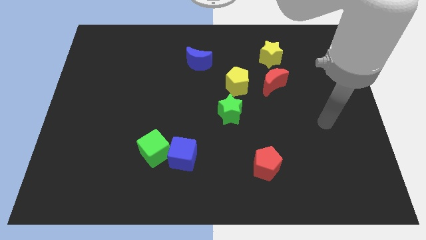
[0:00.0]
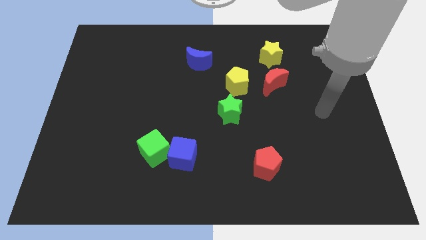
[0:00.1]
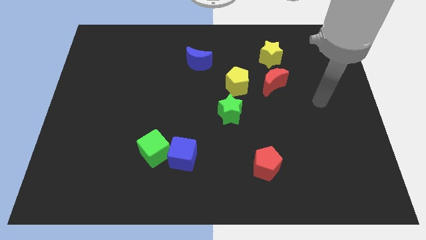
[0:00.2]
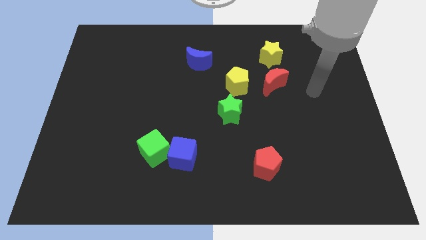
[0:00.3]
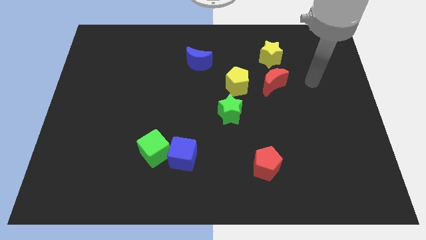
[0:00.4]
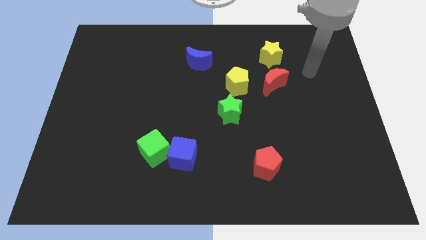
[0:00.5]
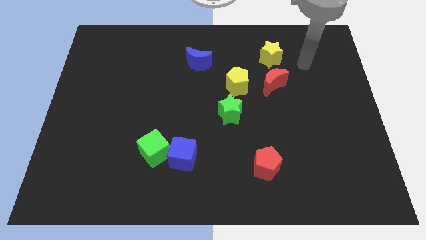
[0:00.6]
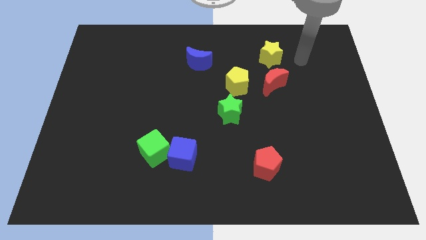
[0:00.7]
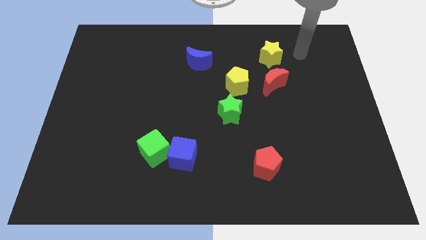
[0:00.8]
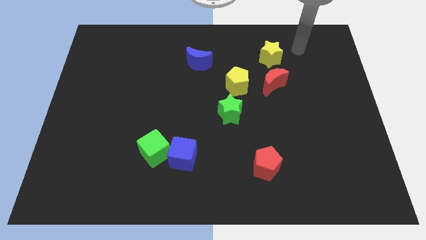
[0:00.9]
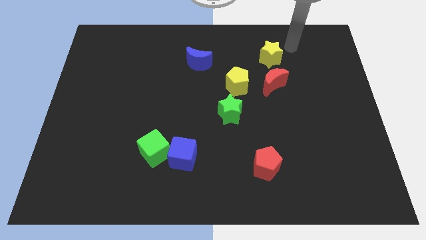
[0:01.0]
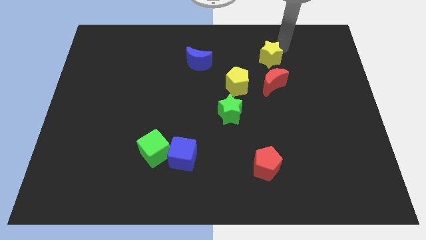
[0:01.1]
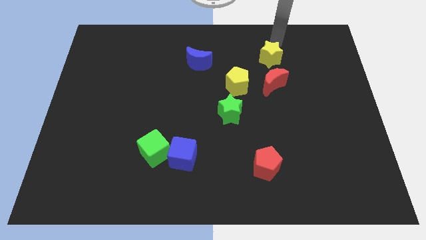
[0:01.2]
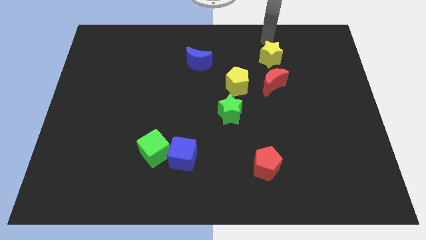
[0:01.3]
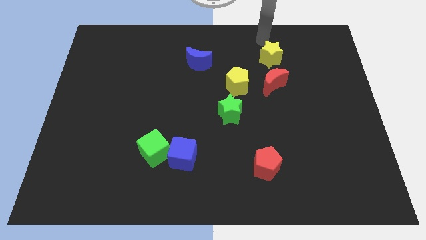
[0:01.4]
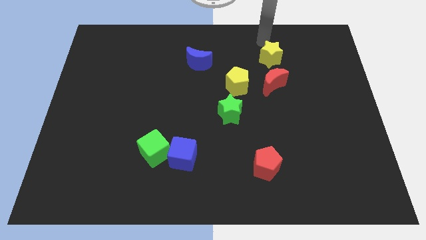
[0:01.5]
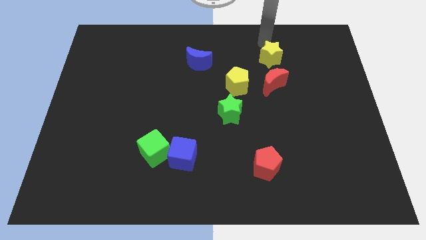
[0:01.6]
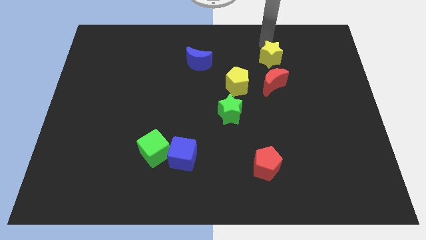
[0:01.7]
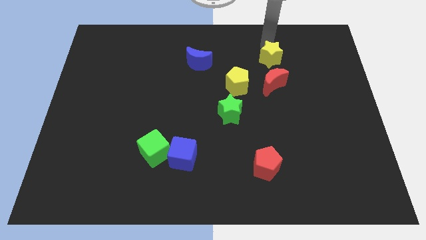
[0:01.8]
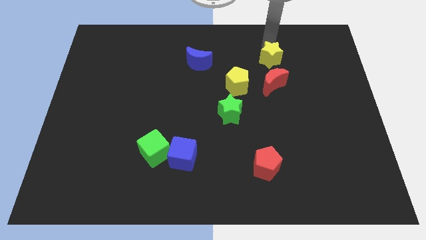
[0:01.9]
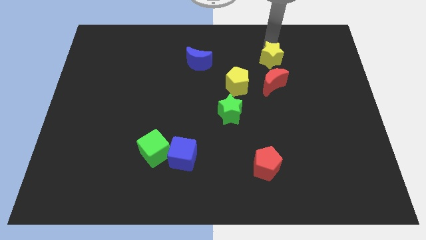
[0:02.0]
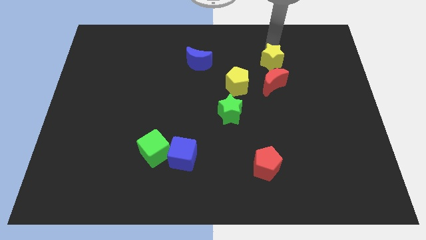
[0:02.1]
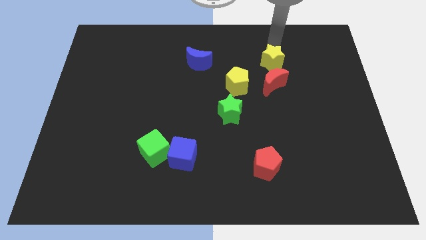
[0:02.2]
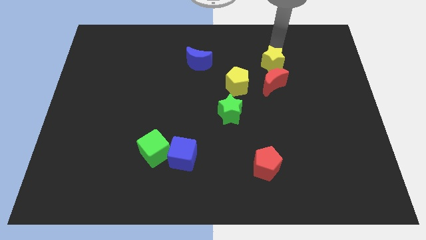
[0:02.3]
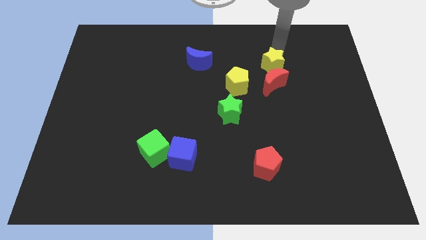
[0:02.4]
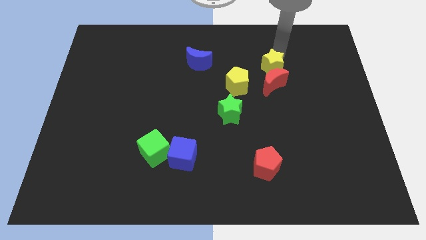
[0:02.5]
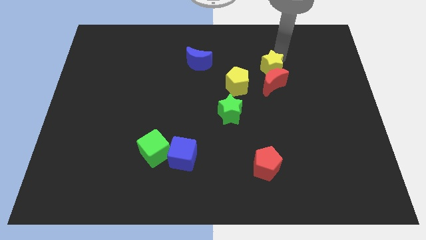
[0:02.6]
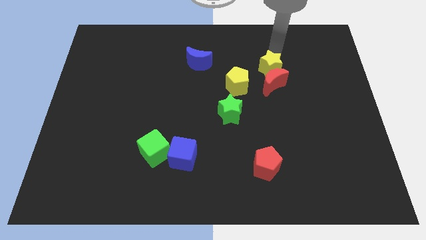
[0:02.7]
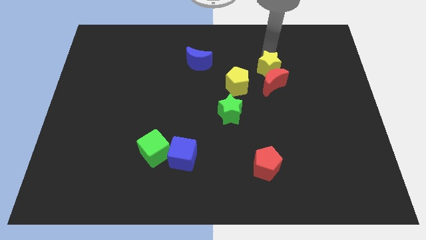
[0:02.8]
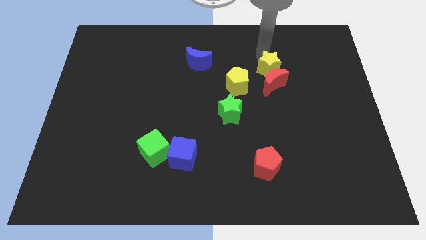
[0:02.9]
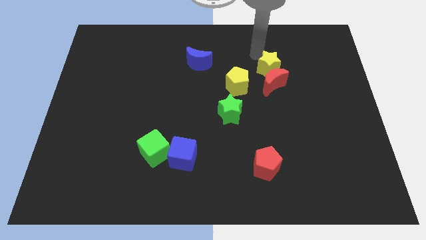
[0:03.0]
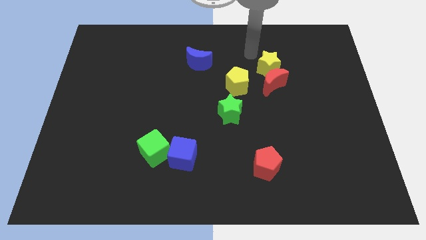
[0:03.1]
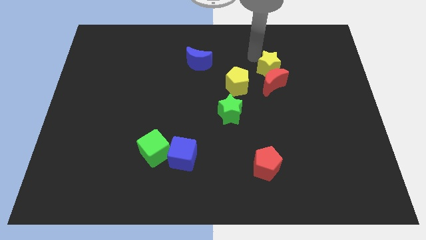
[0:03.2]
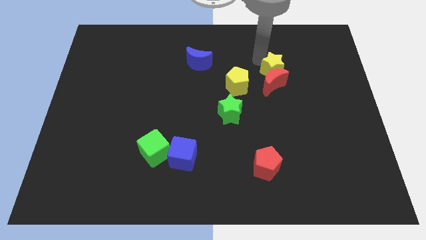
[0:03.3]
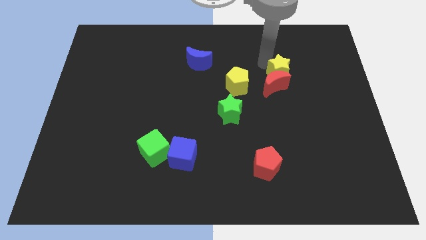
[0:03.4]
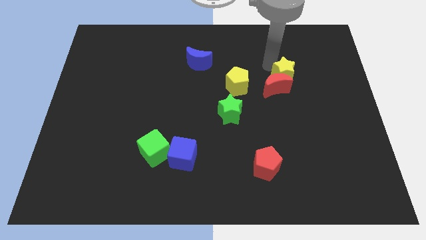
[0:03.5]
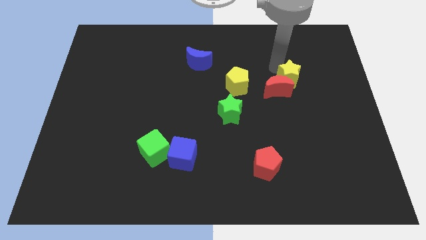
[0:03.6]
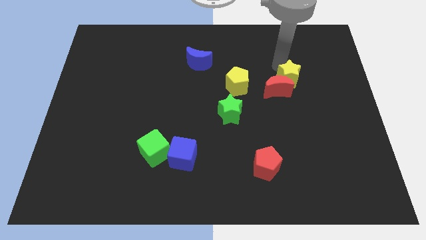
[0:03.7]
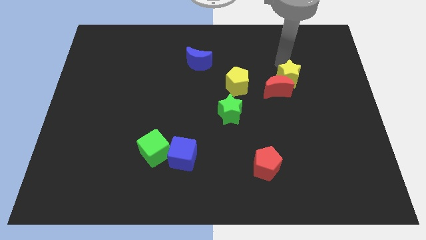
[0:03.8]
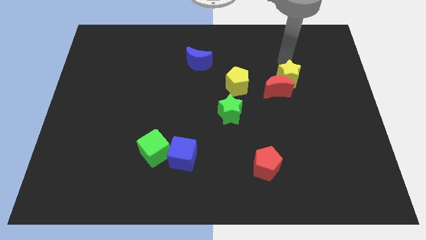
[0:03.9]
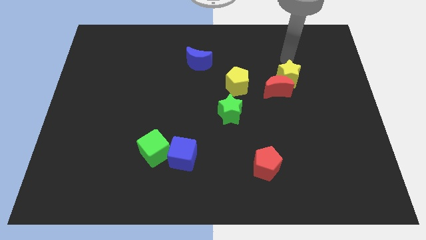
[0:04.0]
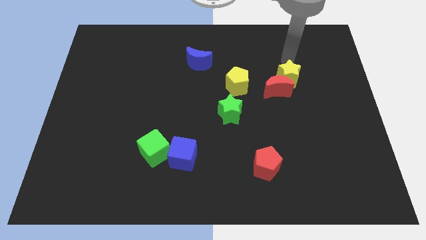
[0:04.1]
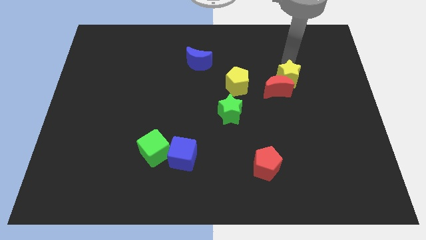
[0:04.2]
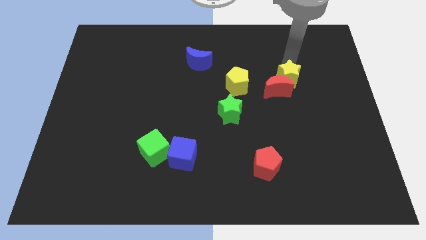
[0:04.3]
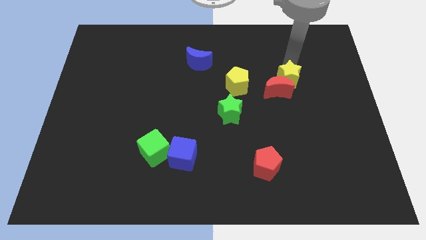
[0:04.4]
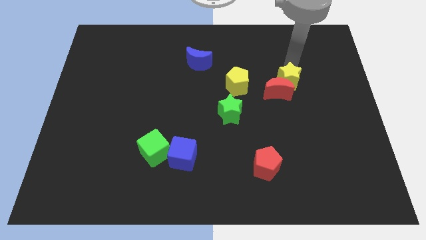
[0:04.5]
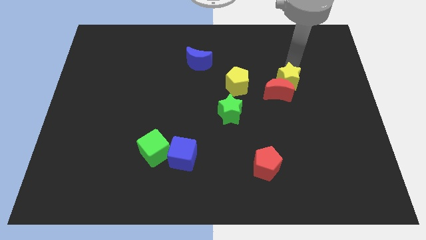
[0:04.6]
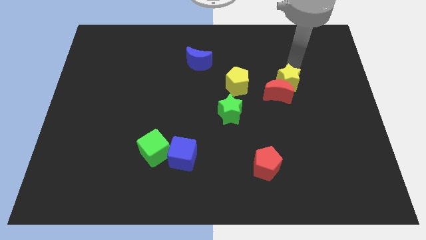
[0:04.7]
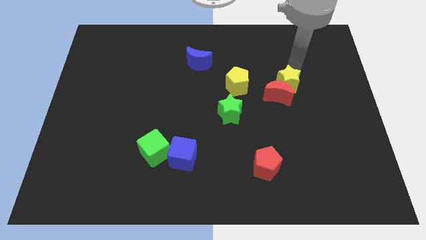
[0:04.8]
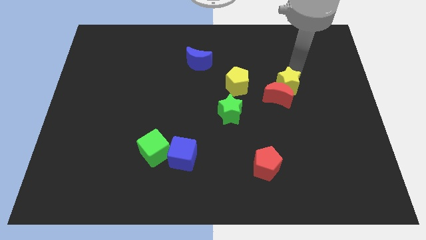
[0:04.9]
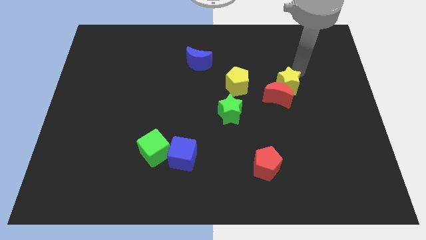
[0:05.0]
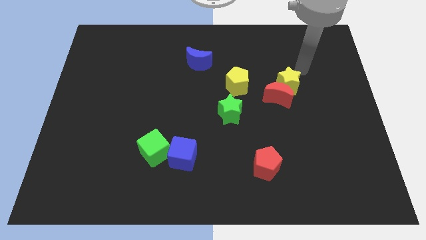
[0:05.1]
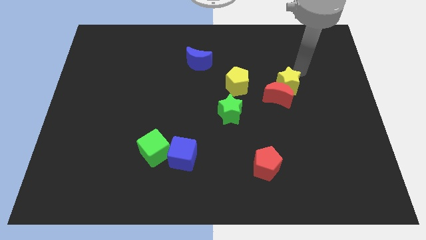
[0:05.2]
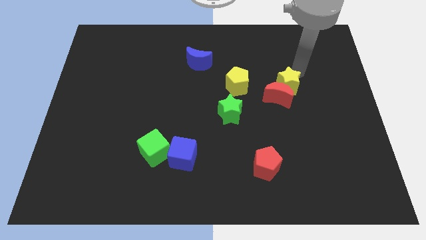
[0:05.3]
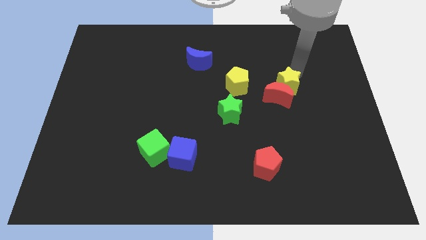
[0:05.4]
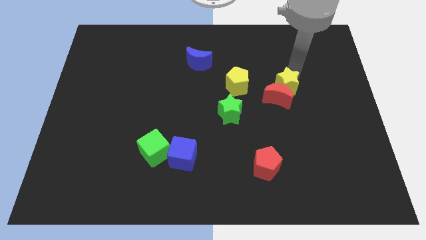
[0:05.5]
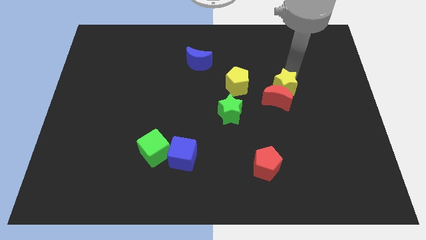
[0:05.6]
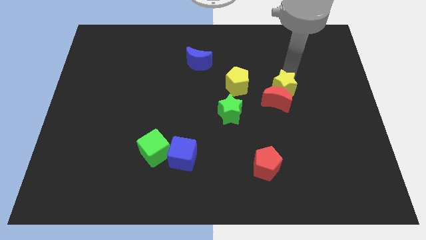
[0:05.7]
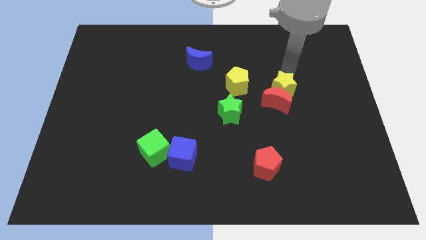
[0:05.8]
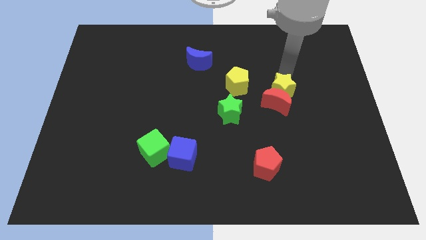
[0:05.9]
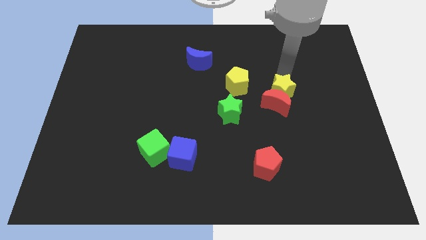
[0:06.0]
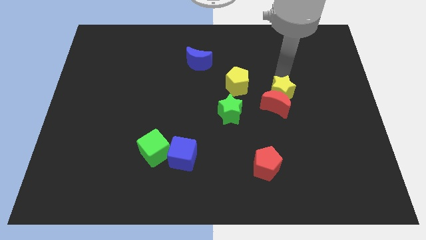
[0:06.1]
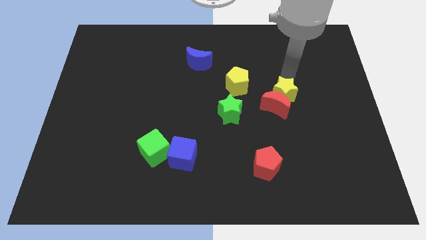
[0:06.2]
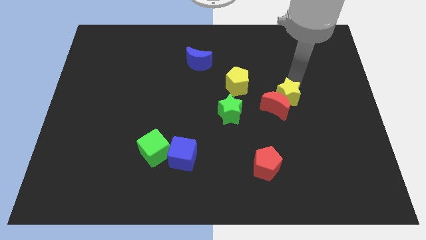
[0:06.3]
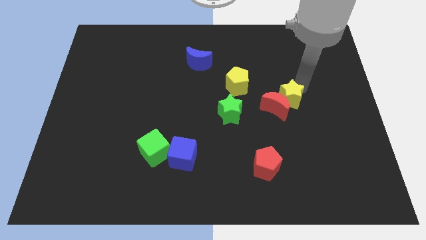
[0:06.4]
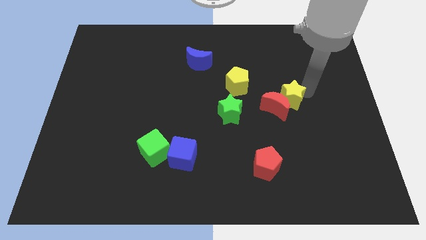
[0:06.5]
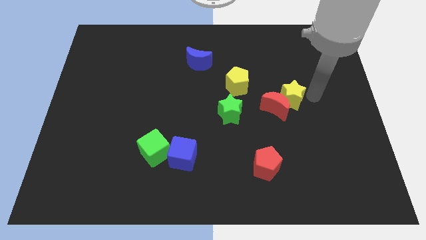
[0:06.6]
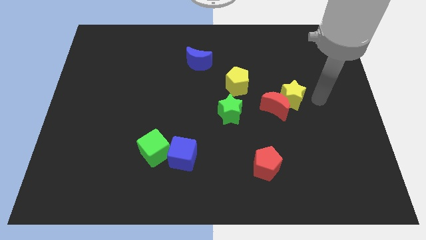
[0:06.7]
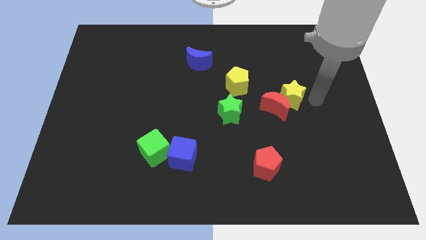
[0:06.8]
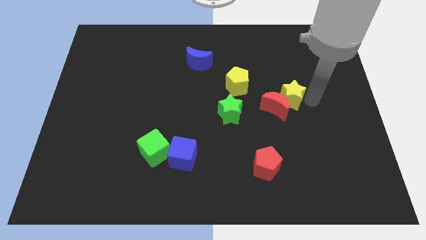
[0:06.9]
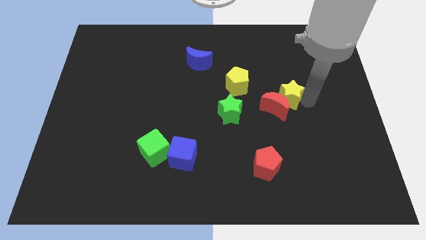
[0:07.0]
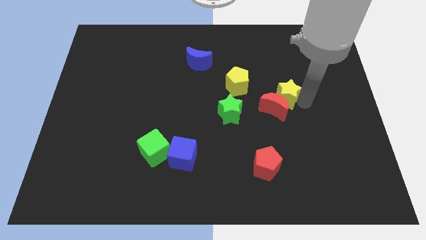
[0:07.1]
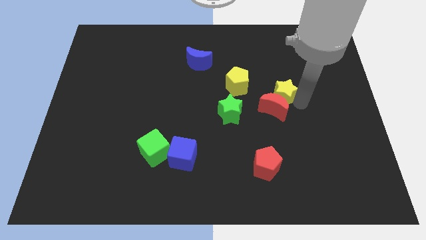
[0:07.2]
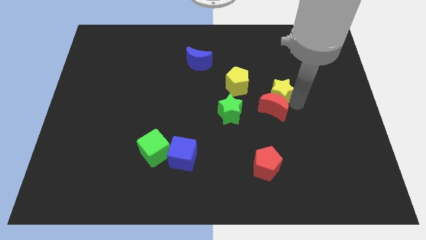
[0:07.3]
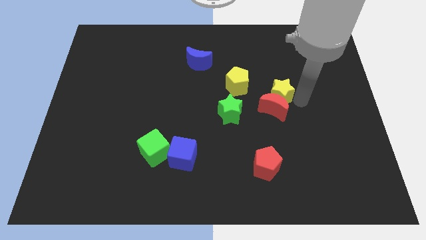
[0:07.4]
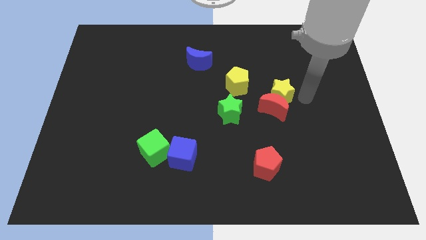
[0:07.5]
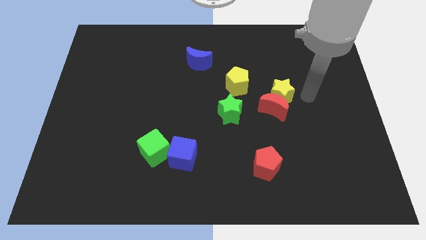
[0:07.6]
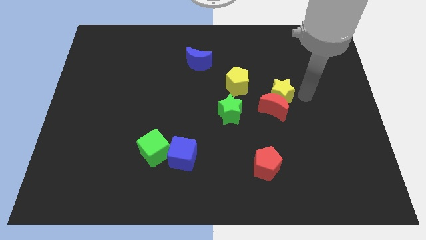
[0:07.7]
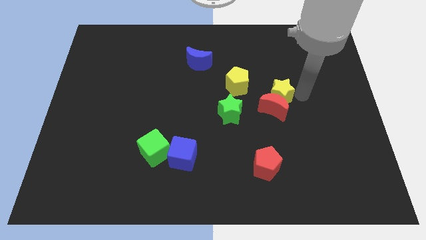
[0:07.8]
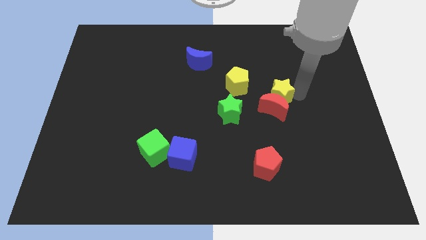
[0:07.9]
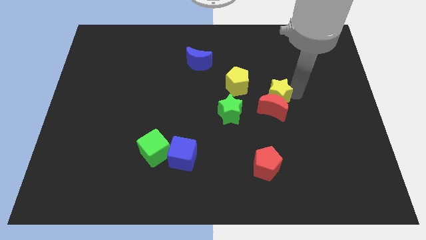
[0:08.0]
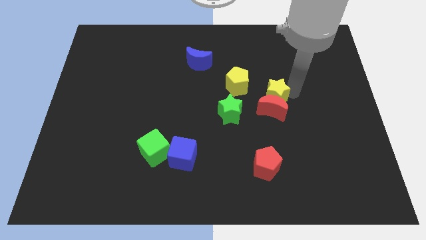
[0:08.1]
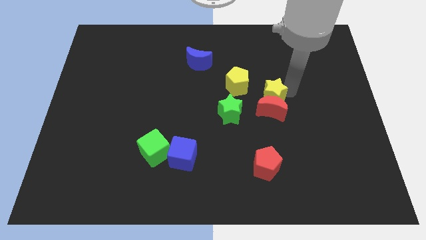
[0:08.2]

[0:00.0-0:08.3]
move the yellow star diagonally up and to the right of the green star
